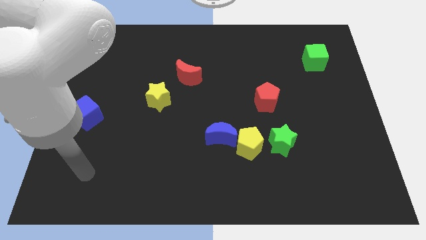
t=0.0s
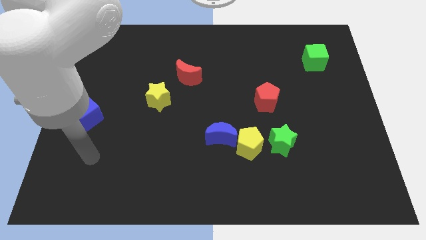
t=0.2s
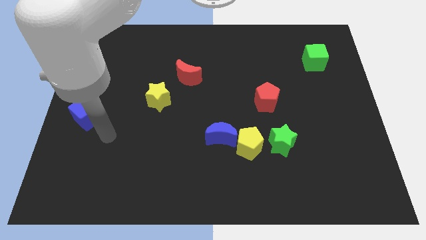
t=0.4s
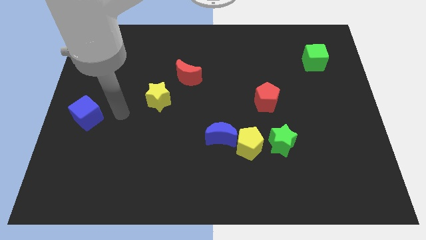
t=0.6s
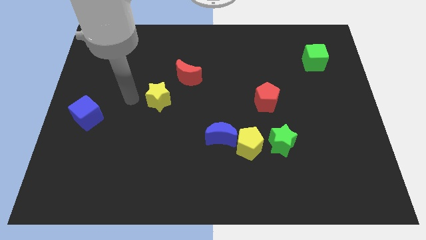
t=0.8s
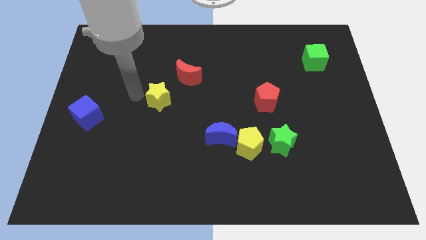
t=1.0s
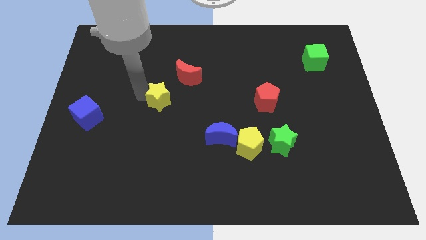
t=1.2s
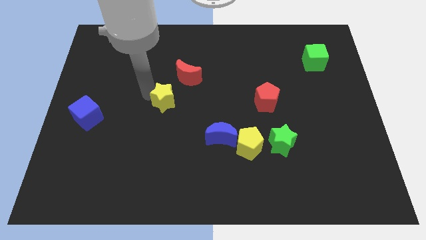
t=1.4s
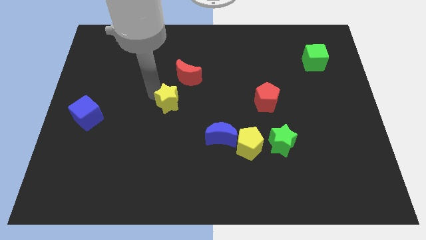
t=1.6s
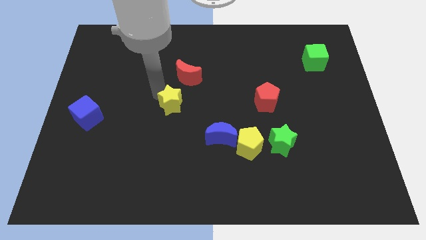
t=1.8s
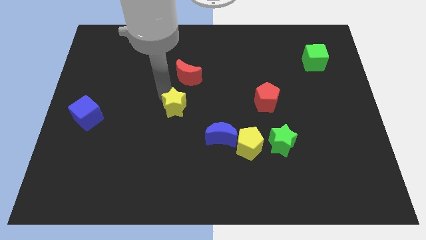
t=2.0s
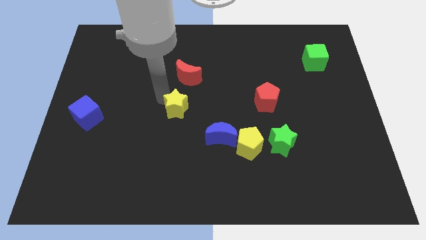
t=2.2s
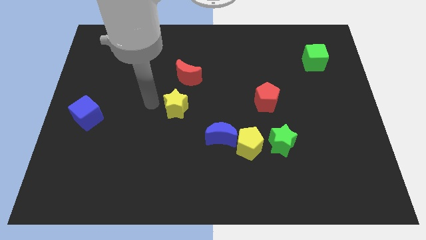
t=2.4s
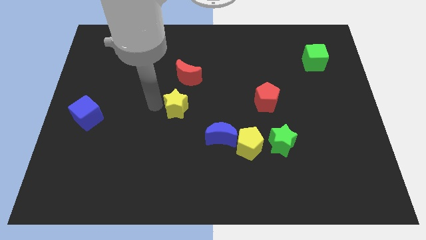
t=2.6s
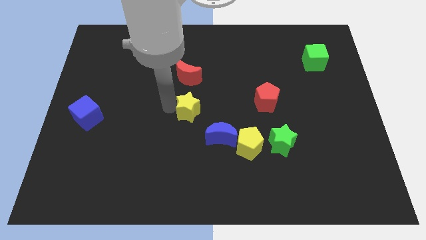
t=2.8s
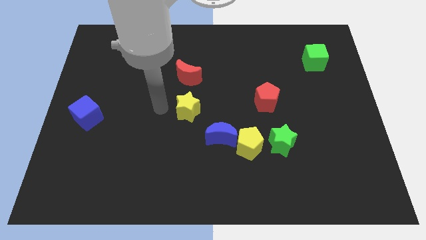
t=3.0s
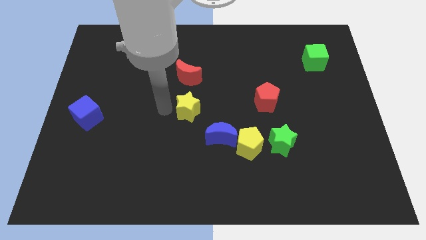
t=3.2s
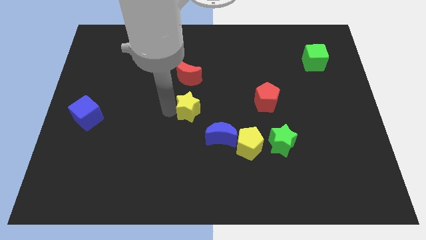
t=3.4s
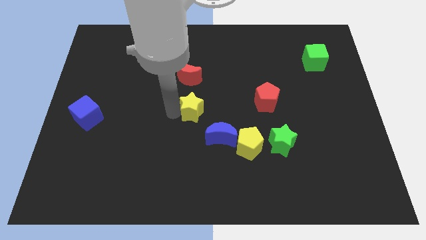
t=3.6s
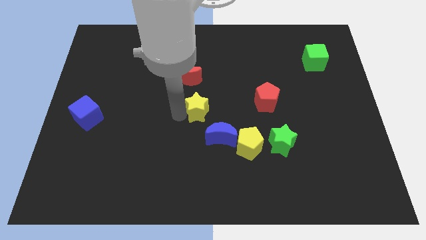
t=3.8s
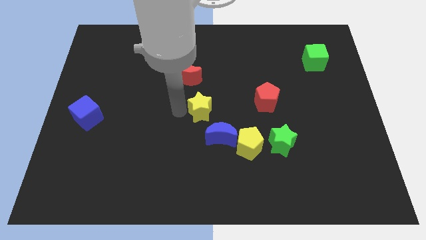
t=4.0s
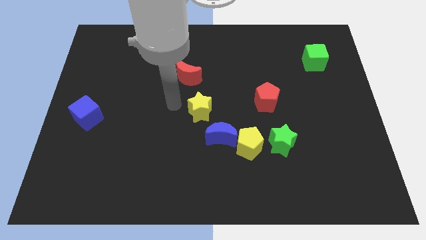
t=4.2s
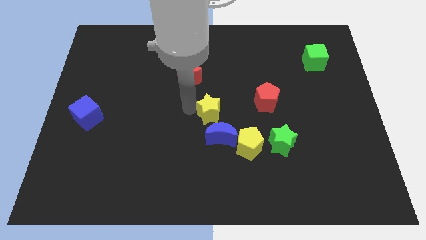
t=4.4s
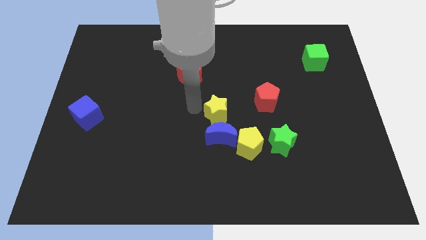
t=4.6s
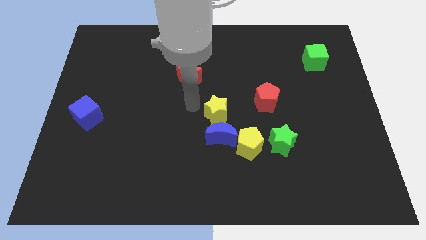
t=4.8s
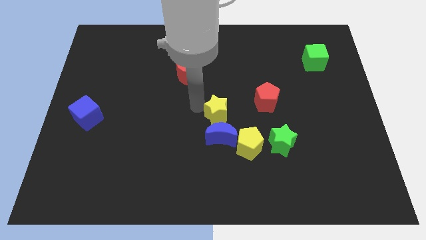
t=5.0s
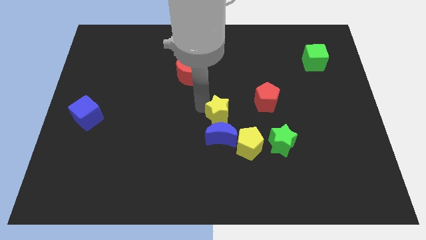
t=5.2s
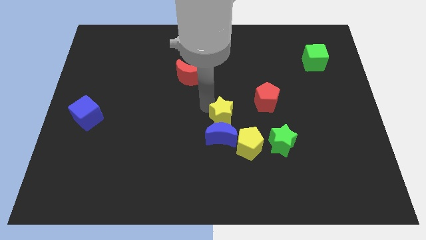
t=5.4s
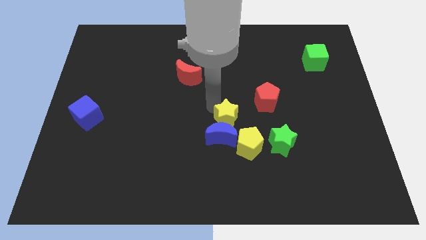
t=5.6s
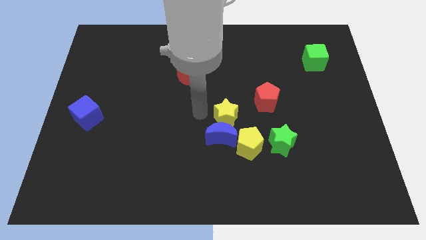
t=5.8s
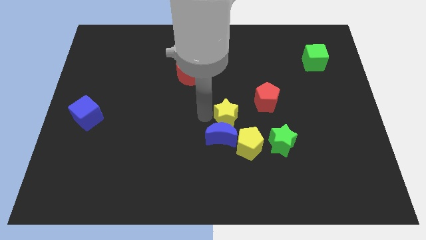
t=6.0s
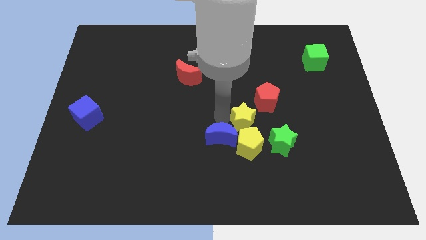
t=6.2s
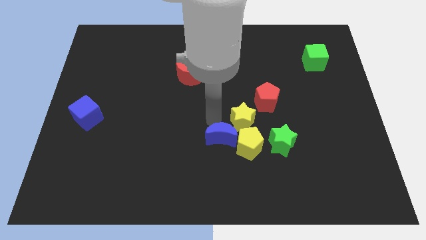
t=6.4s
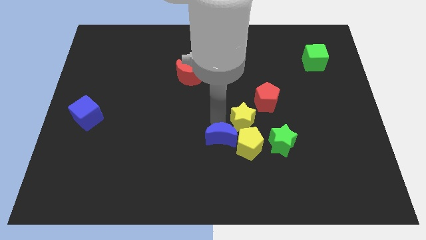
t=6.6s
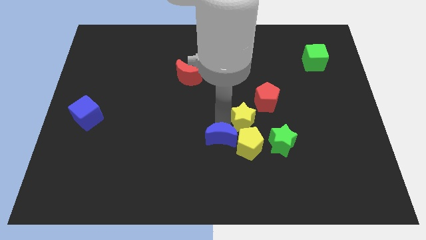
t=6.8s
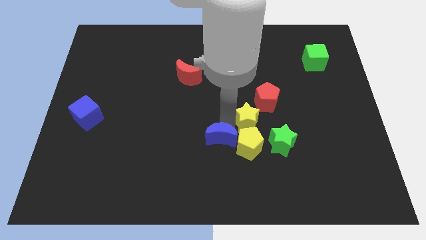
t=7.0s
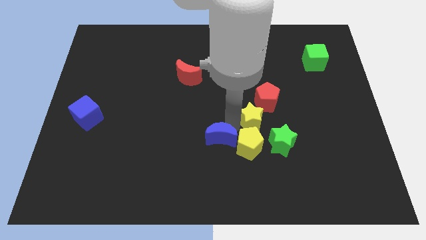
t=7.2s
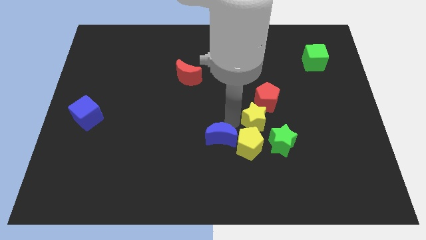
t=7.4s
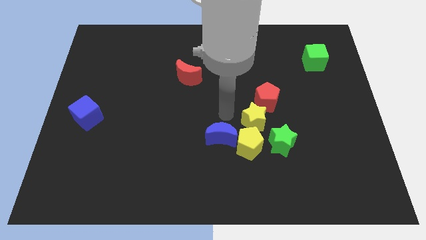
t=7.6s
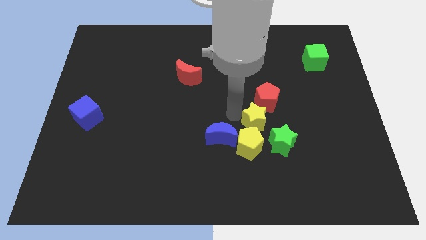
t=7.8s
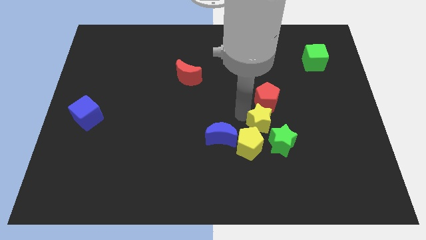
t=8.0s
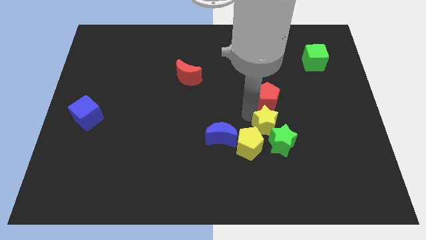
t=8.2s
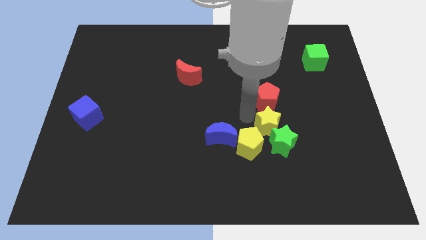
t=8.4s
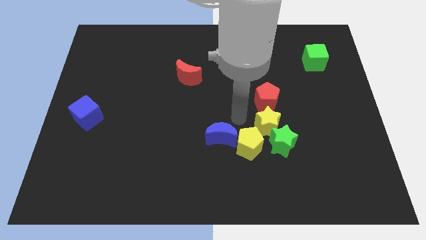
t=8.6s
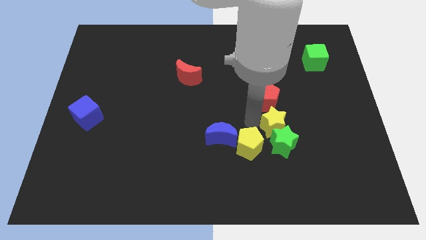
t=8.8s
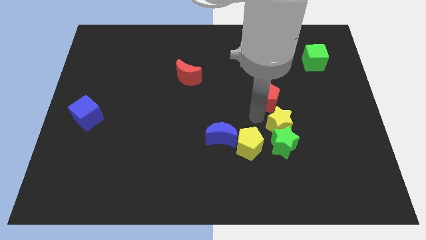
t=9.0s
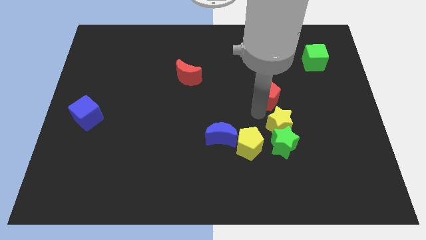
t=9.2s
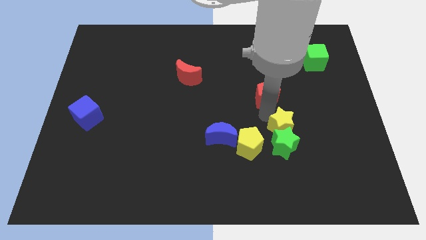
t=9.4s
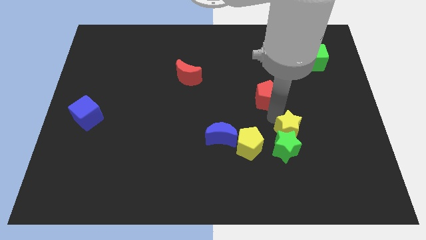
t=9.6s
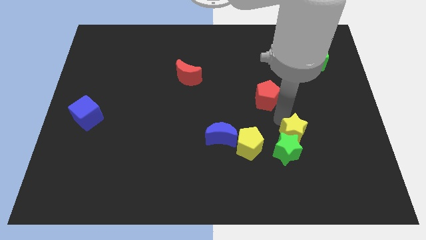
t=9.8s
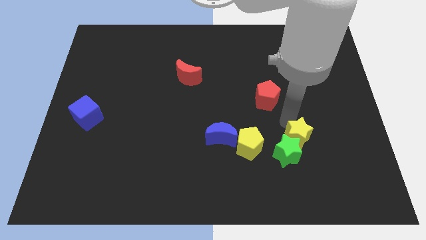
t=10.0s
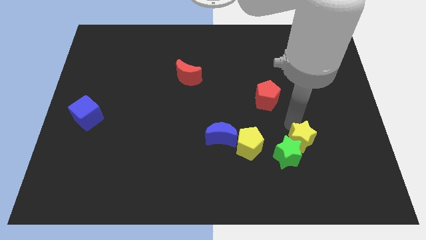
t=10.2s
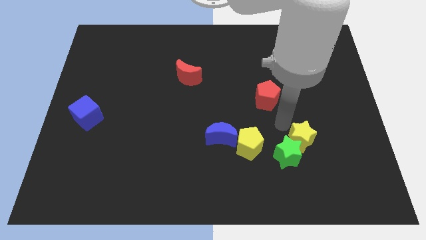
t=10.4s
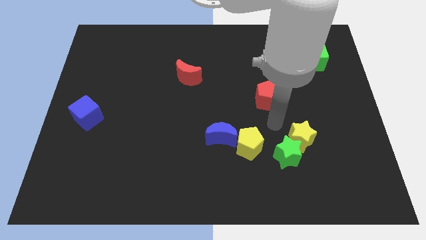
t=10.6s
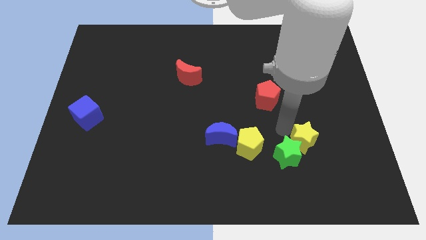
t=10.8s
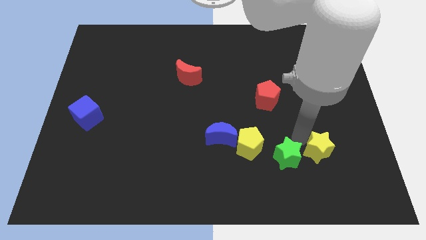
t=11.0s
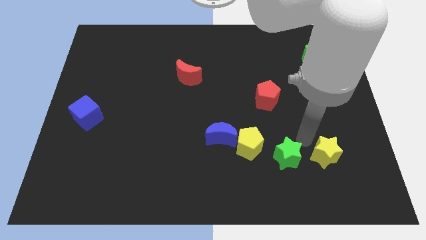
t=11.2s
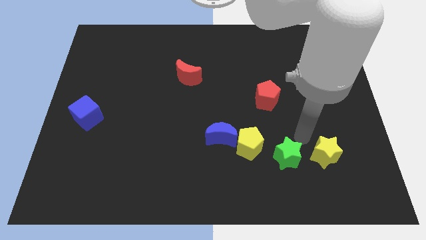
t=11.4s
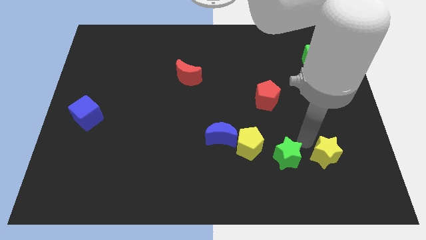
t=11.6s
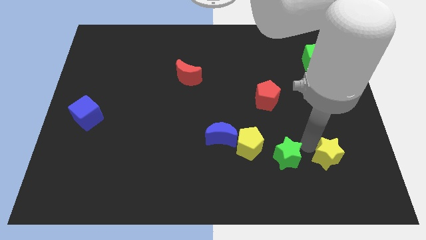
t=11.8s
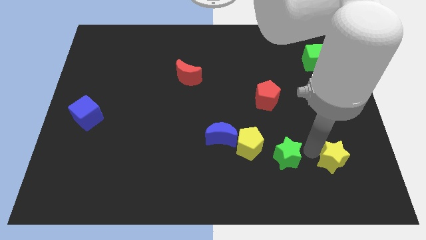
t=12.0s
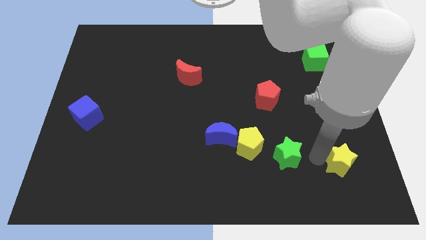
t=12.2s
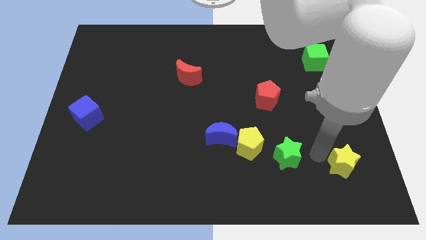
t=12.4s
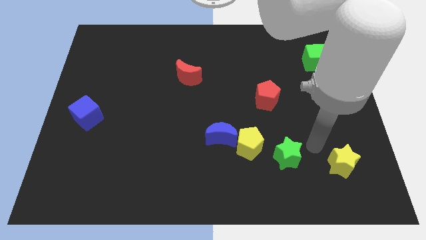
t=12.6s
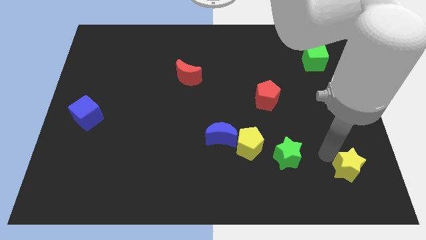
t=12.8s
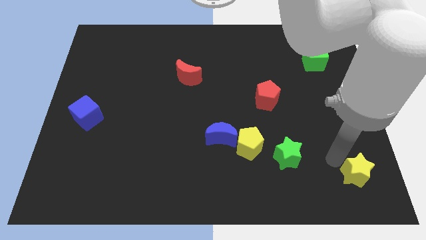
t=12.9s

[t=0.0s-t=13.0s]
slide the yellow star to the bottom right
